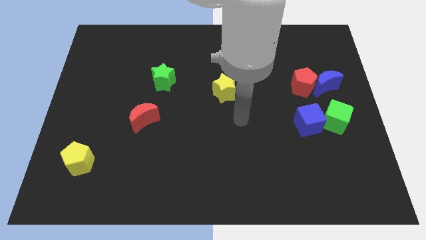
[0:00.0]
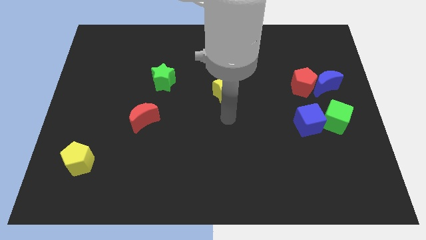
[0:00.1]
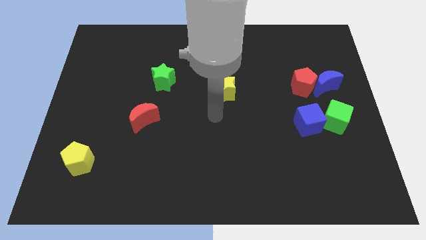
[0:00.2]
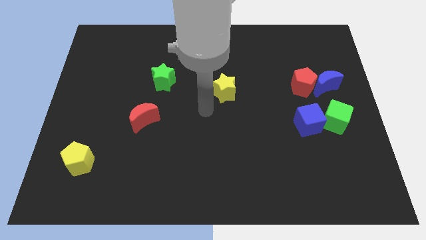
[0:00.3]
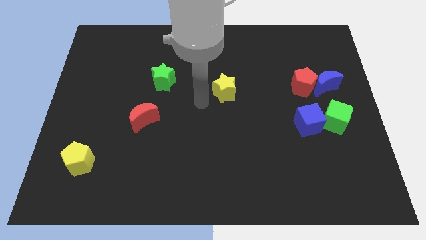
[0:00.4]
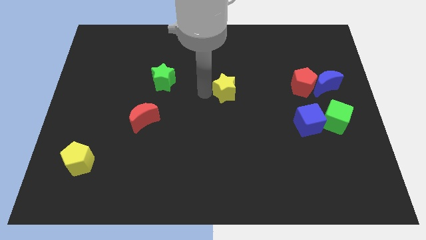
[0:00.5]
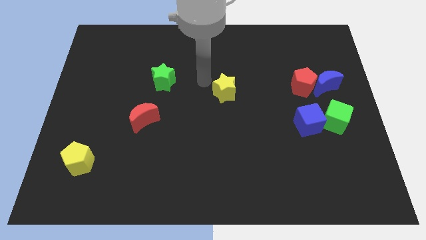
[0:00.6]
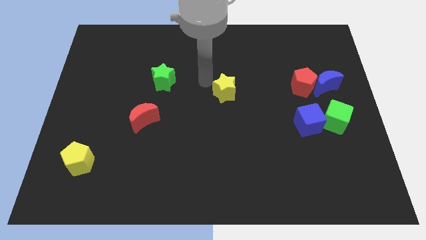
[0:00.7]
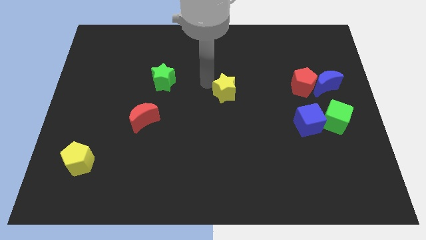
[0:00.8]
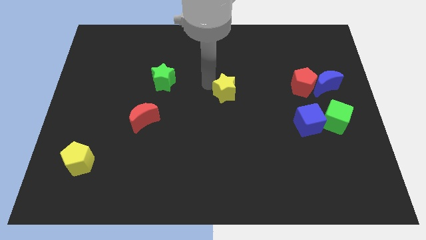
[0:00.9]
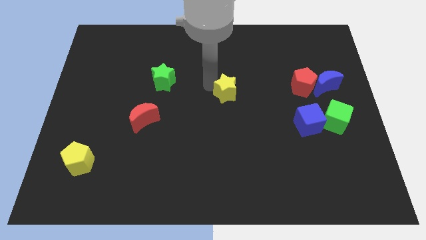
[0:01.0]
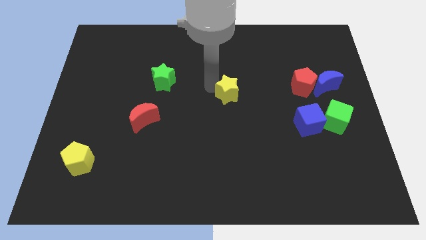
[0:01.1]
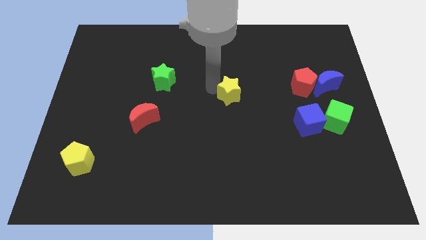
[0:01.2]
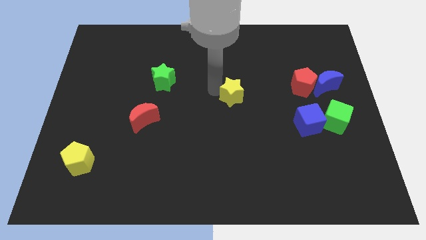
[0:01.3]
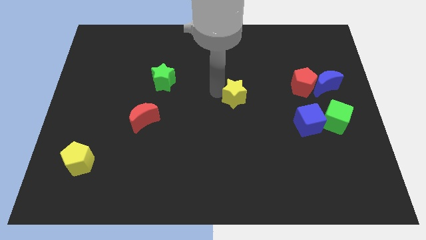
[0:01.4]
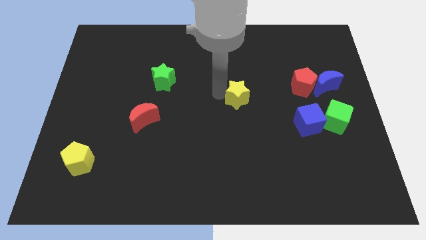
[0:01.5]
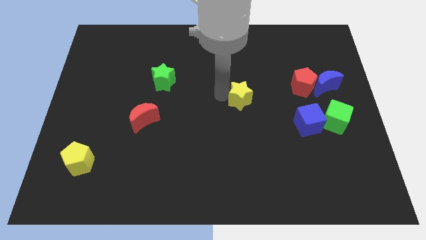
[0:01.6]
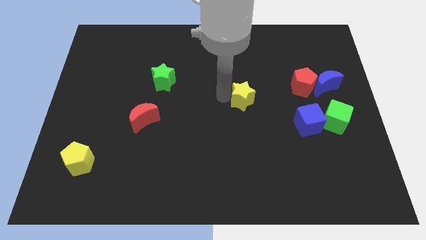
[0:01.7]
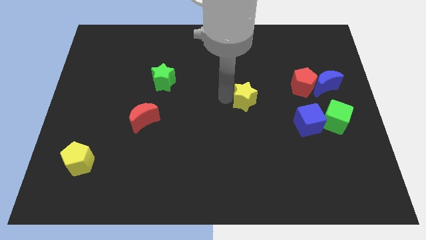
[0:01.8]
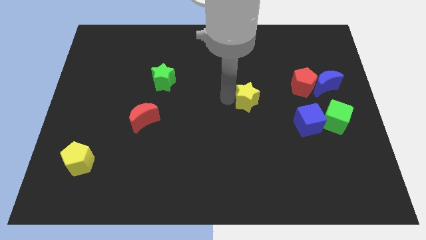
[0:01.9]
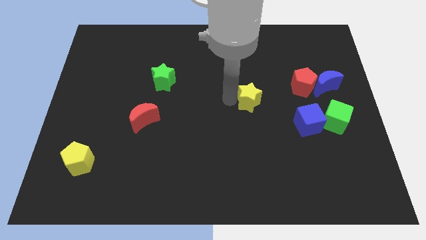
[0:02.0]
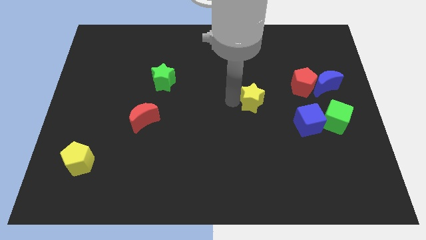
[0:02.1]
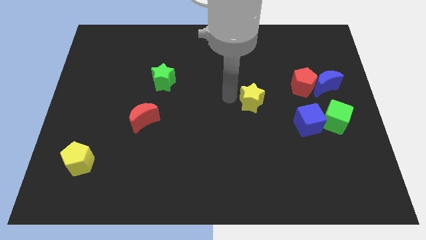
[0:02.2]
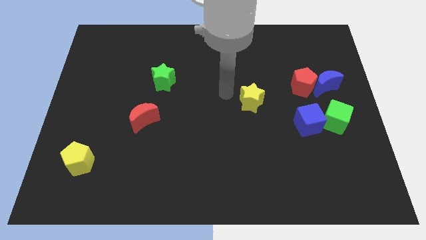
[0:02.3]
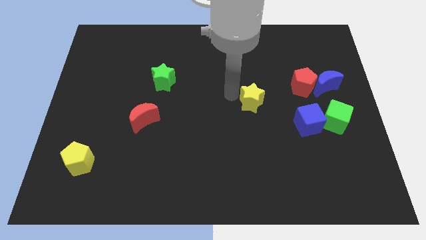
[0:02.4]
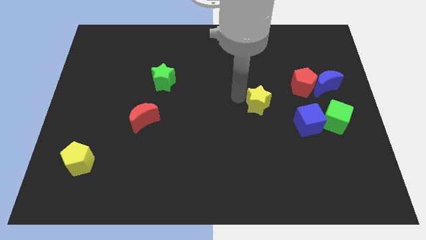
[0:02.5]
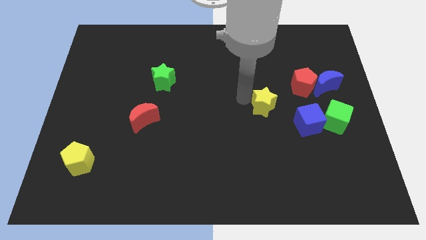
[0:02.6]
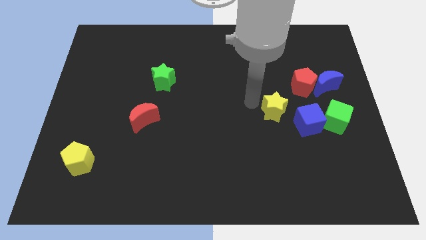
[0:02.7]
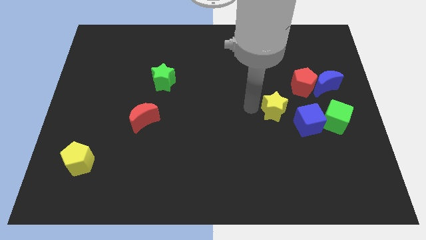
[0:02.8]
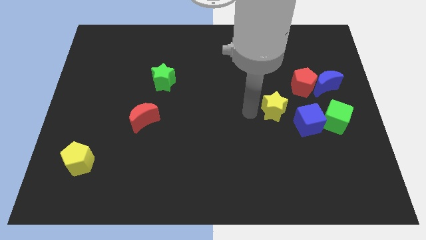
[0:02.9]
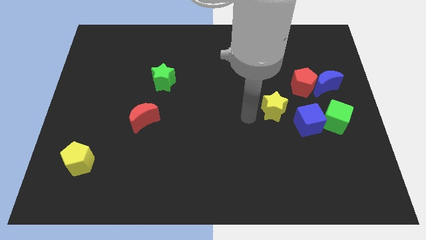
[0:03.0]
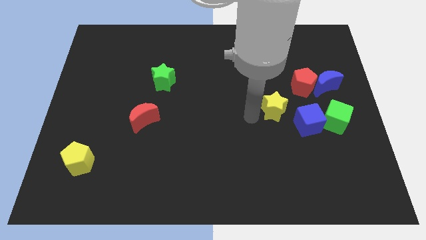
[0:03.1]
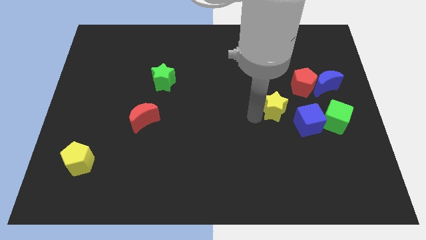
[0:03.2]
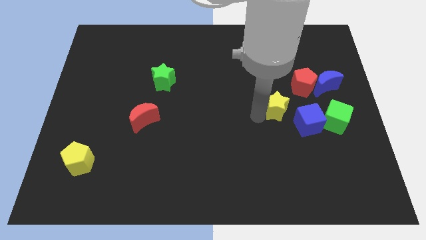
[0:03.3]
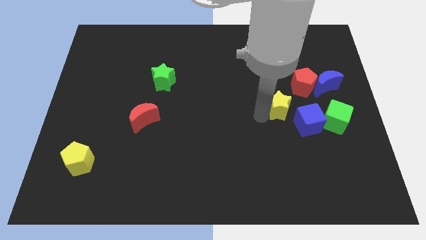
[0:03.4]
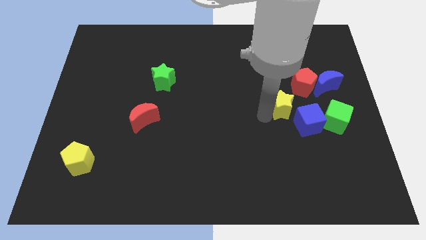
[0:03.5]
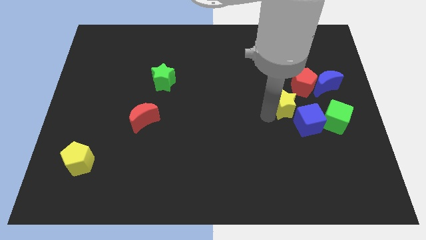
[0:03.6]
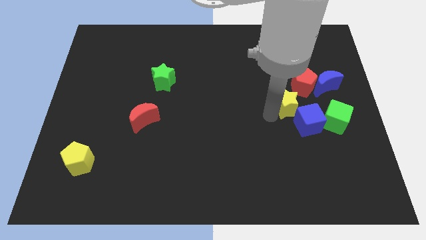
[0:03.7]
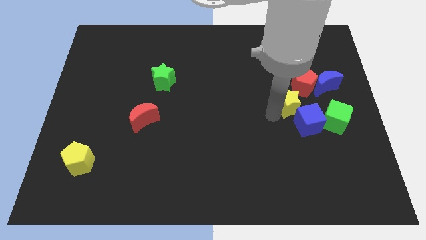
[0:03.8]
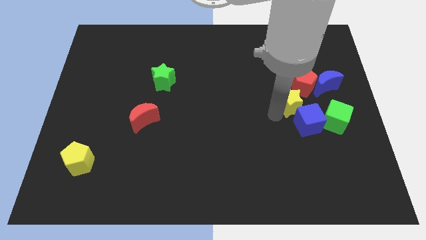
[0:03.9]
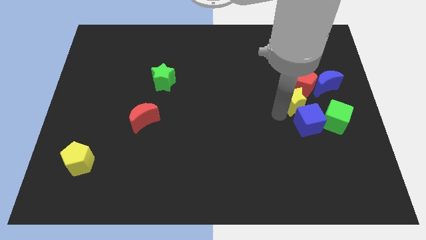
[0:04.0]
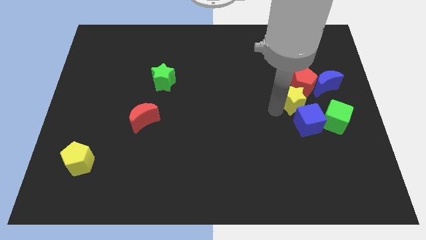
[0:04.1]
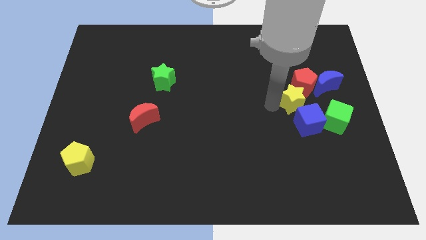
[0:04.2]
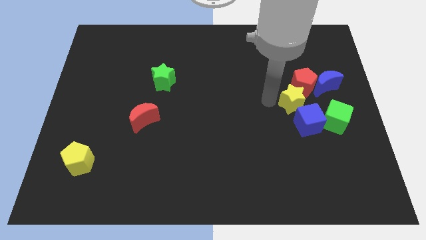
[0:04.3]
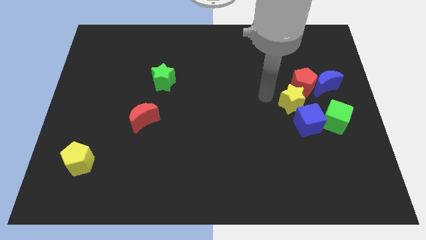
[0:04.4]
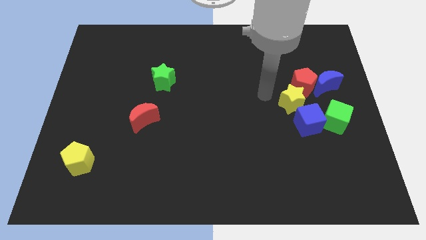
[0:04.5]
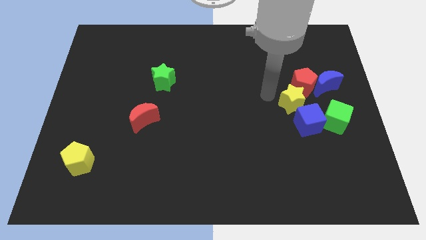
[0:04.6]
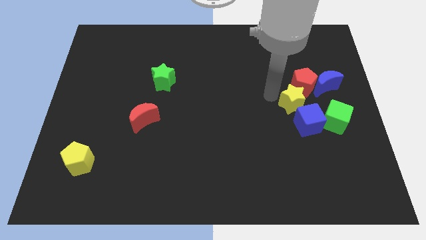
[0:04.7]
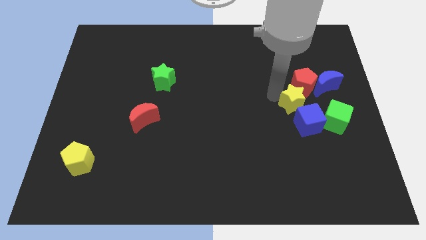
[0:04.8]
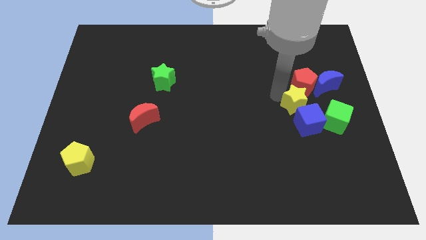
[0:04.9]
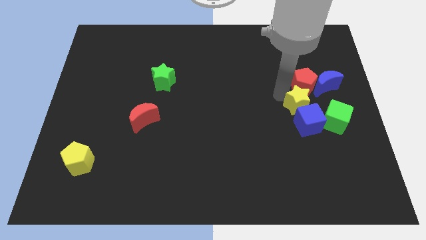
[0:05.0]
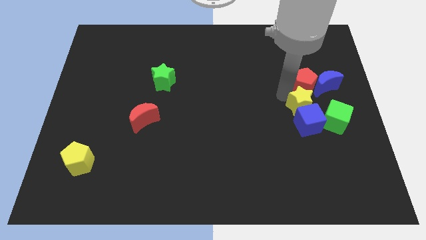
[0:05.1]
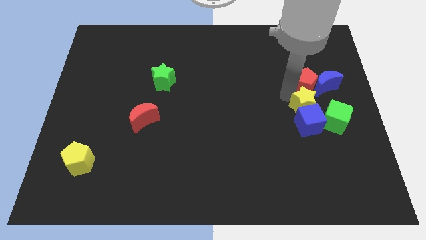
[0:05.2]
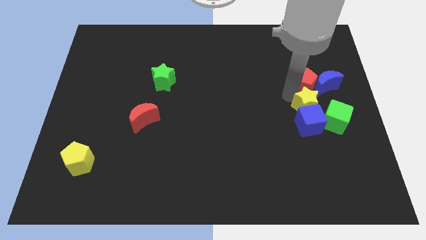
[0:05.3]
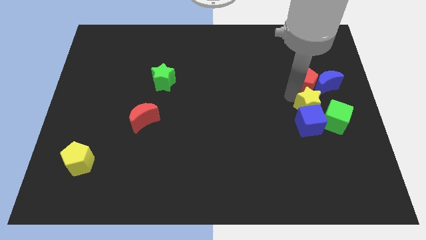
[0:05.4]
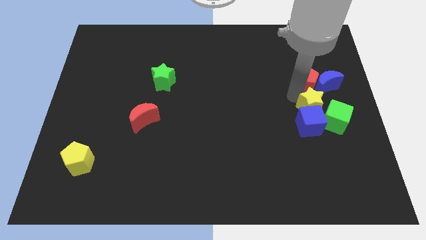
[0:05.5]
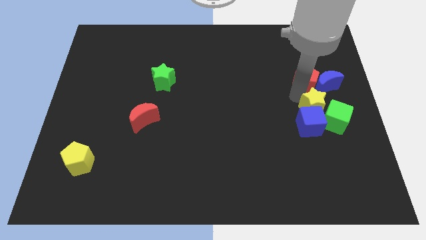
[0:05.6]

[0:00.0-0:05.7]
slide the yellow star next to the green cube
